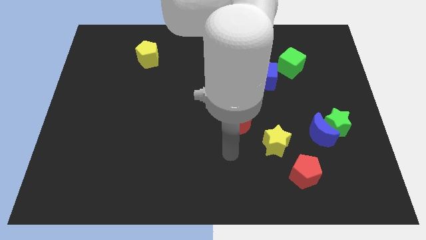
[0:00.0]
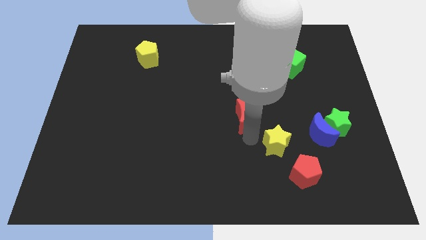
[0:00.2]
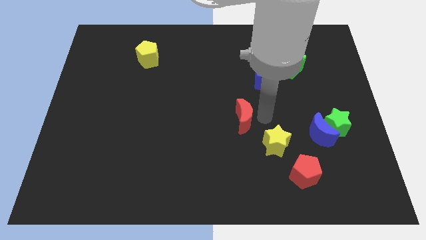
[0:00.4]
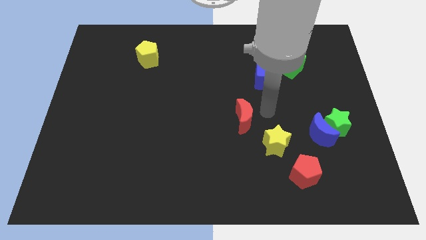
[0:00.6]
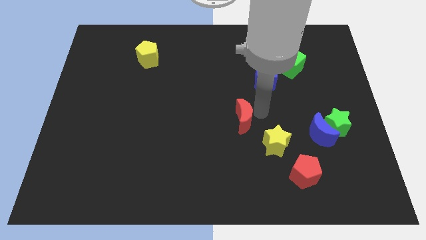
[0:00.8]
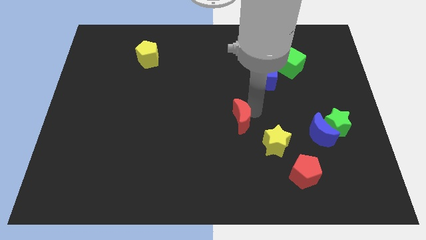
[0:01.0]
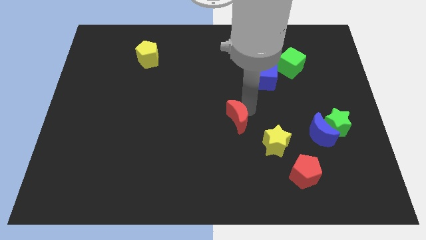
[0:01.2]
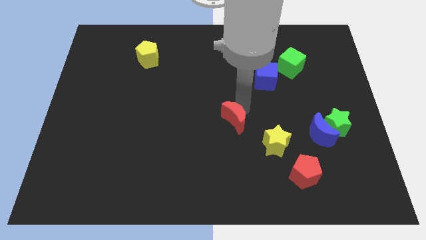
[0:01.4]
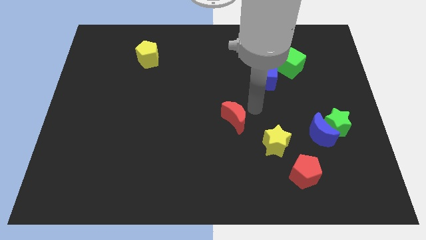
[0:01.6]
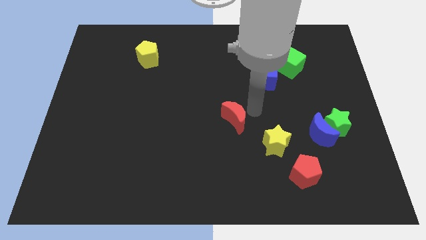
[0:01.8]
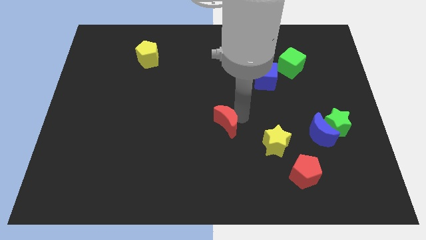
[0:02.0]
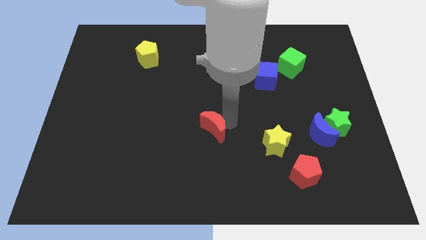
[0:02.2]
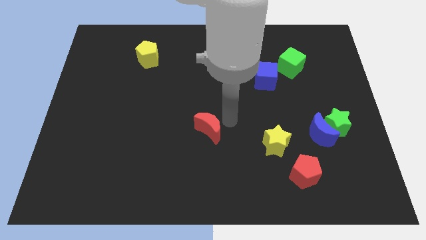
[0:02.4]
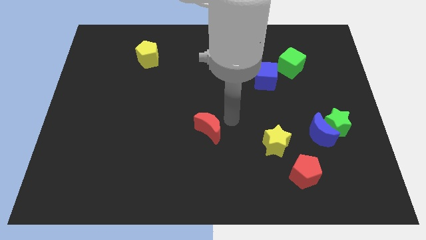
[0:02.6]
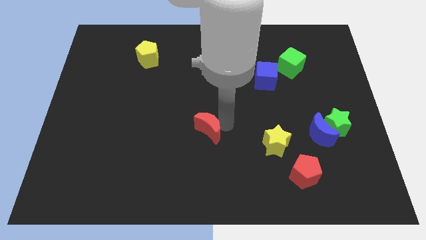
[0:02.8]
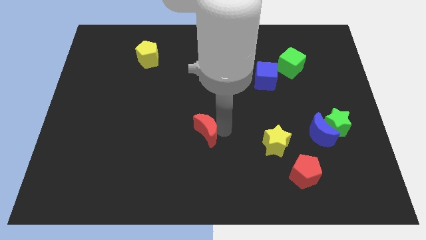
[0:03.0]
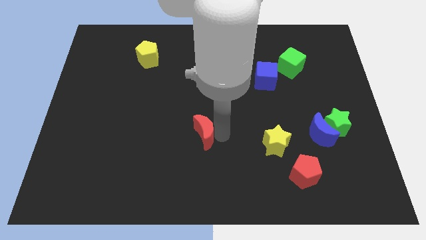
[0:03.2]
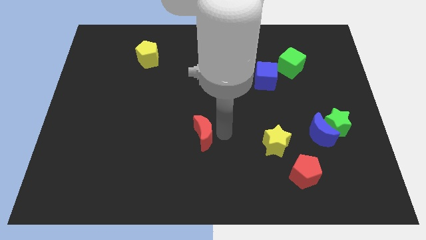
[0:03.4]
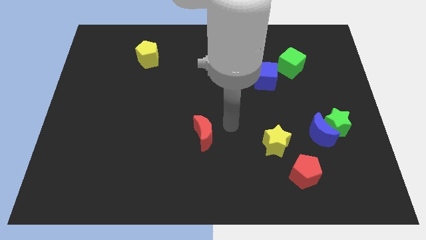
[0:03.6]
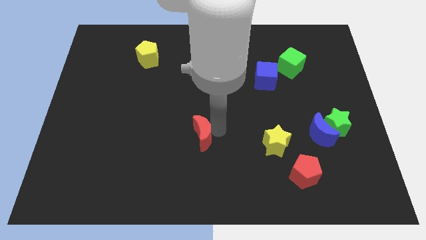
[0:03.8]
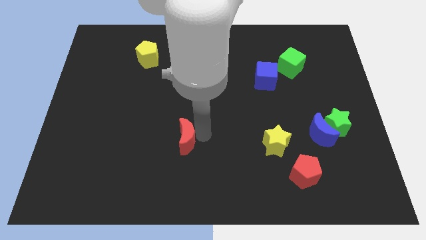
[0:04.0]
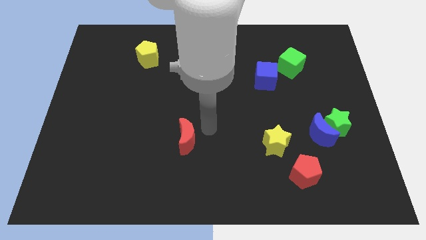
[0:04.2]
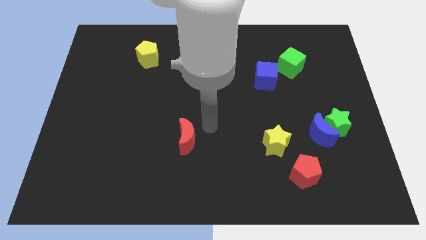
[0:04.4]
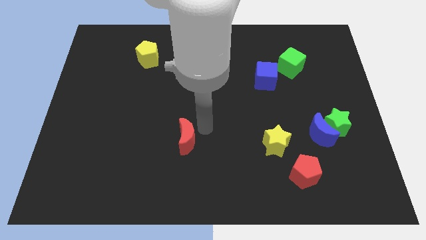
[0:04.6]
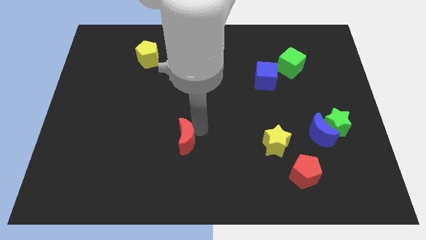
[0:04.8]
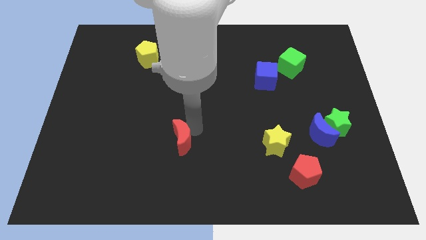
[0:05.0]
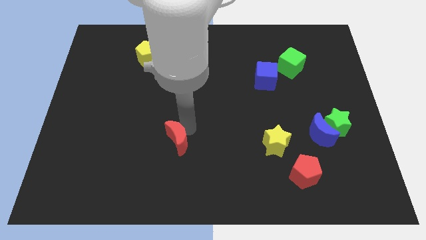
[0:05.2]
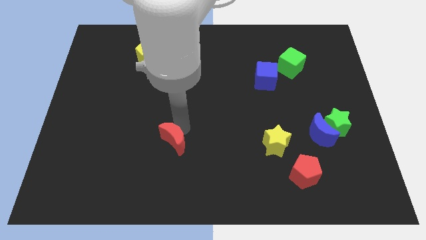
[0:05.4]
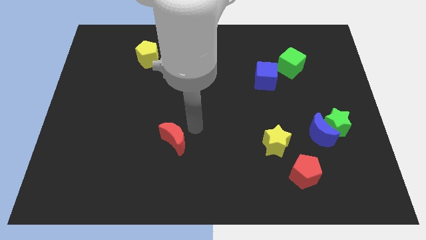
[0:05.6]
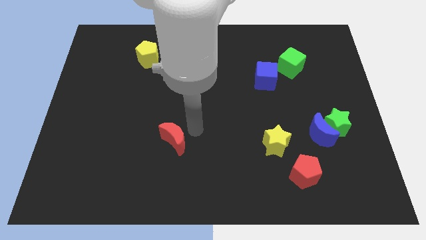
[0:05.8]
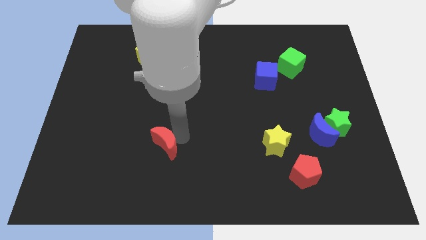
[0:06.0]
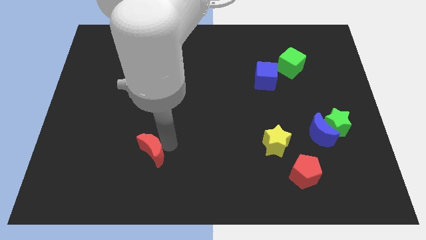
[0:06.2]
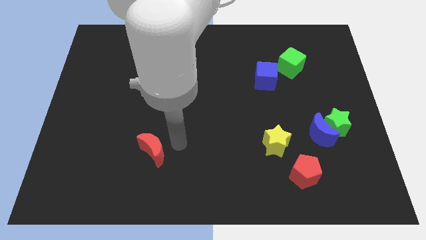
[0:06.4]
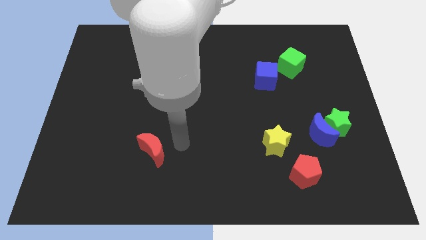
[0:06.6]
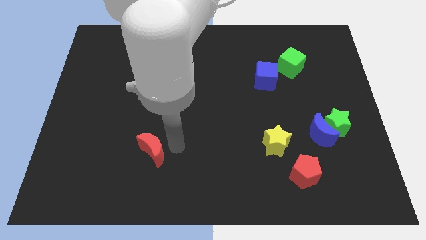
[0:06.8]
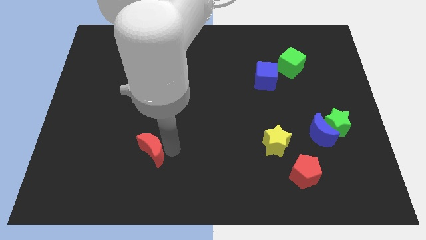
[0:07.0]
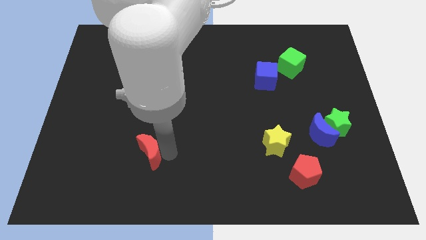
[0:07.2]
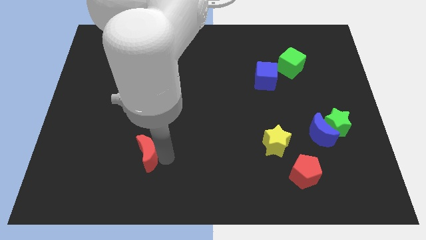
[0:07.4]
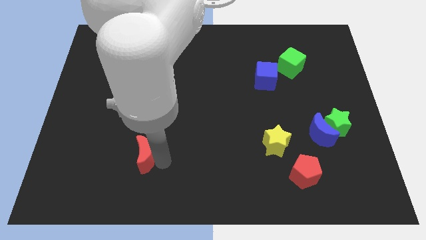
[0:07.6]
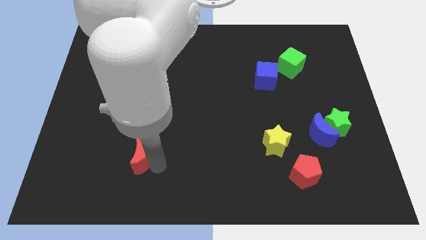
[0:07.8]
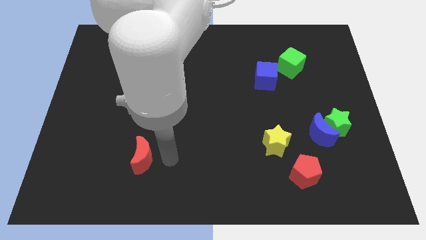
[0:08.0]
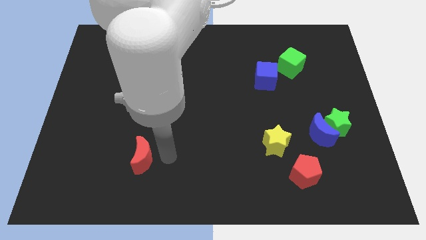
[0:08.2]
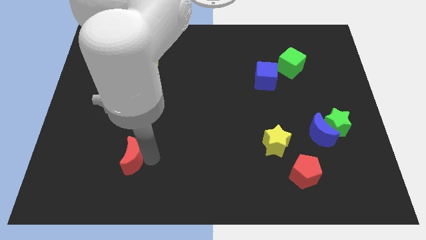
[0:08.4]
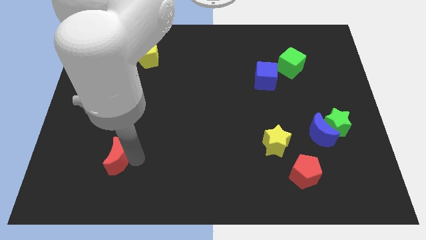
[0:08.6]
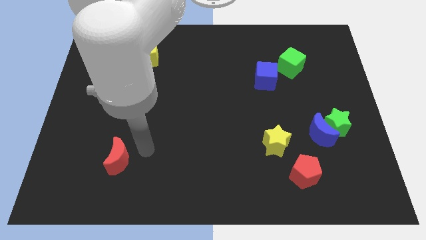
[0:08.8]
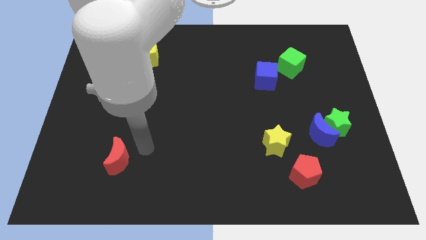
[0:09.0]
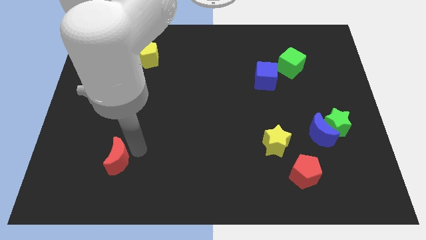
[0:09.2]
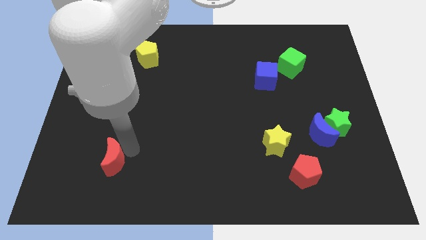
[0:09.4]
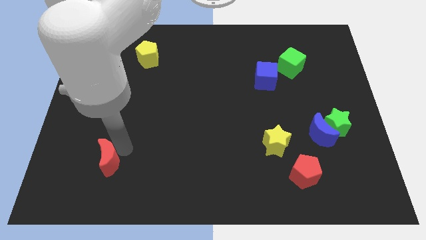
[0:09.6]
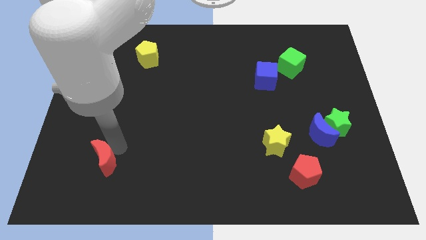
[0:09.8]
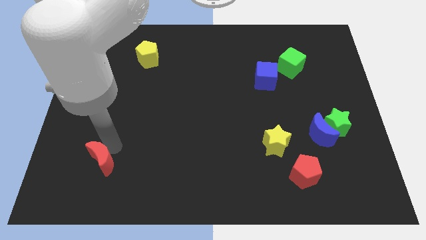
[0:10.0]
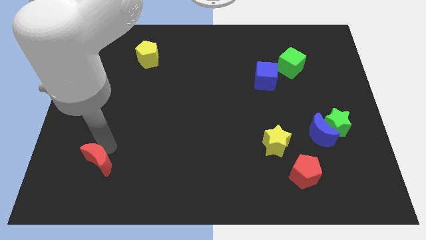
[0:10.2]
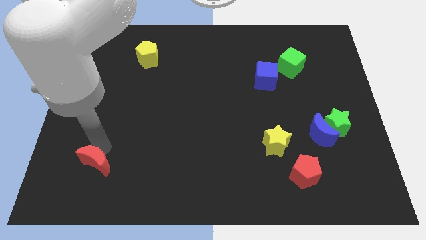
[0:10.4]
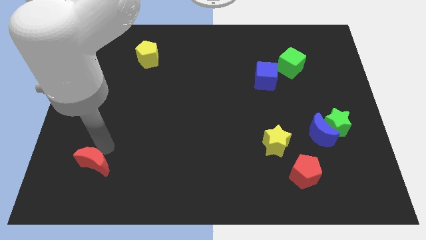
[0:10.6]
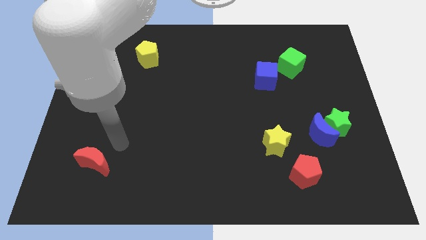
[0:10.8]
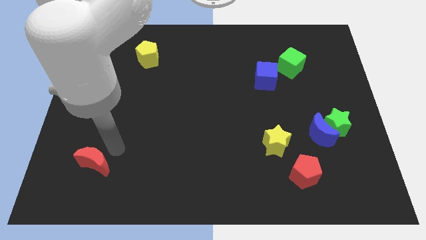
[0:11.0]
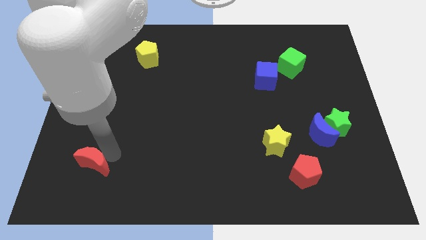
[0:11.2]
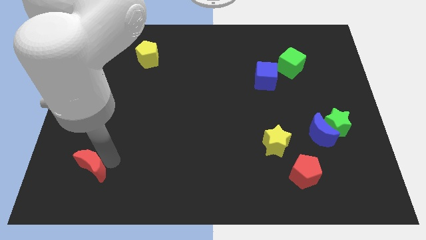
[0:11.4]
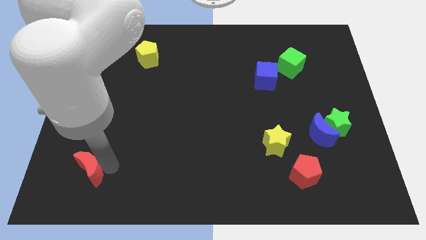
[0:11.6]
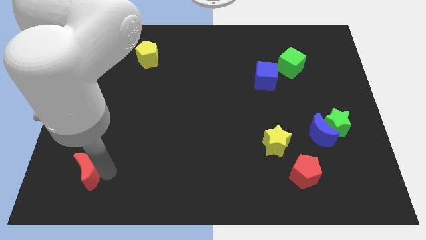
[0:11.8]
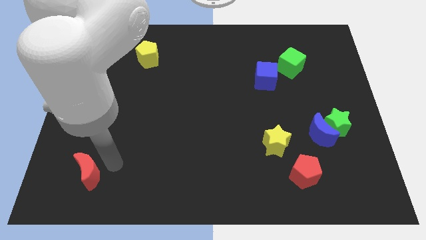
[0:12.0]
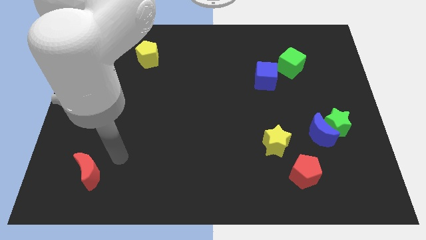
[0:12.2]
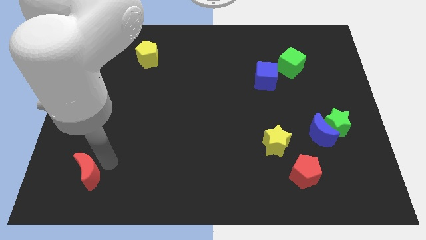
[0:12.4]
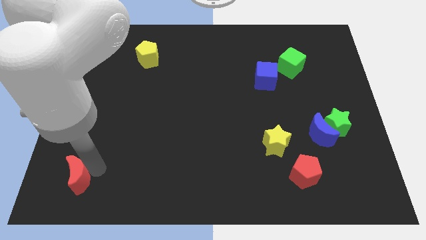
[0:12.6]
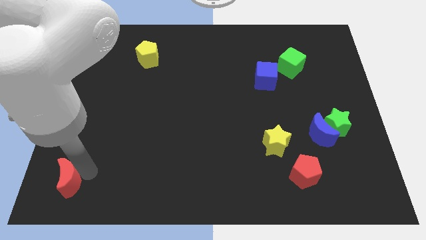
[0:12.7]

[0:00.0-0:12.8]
push the red moon to the bottom left
